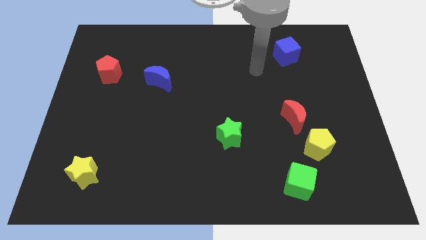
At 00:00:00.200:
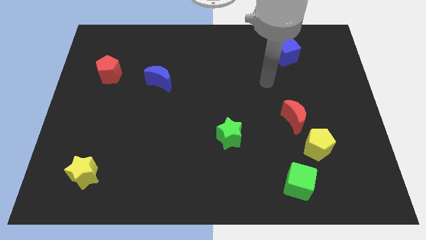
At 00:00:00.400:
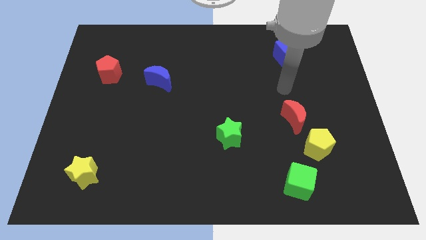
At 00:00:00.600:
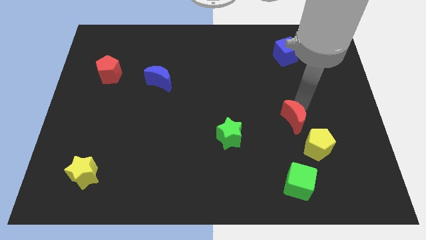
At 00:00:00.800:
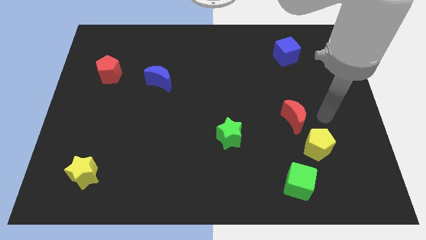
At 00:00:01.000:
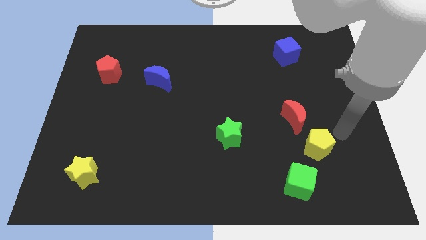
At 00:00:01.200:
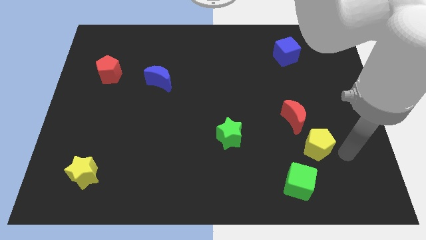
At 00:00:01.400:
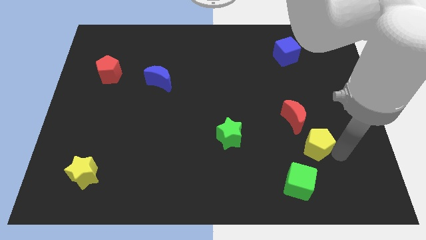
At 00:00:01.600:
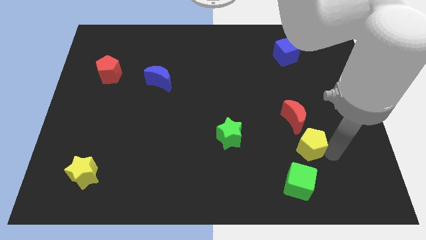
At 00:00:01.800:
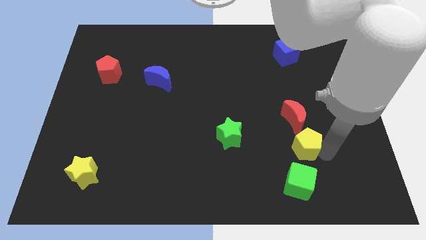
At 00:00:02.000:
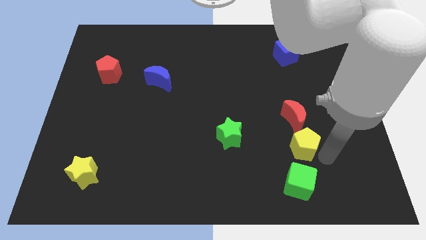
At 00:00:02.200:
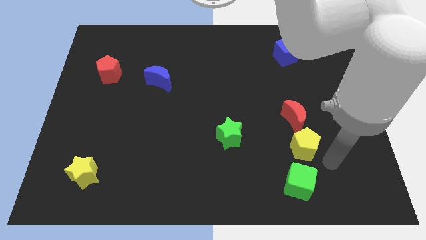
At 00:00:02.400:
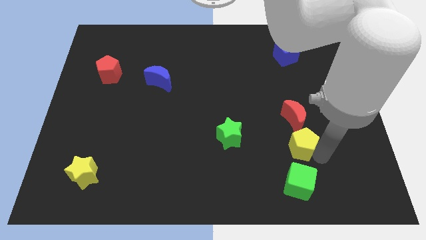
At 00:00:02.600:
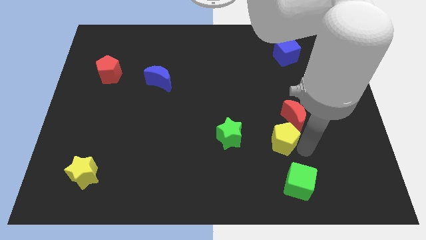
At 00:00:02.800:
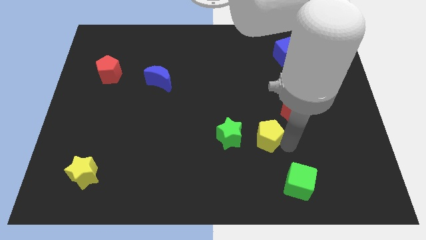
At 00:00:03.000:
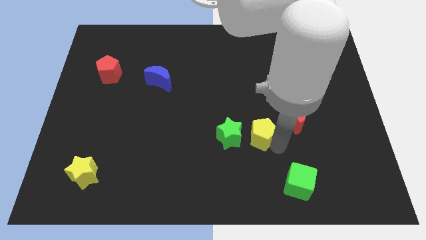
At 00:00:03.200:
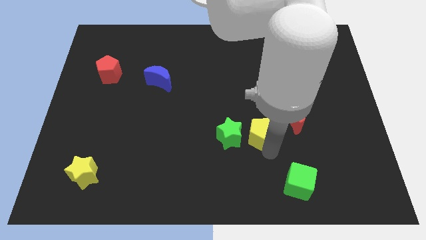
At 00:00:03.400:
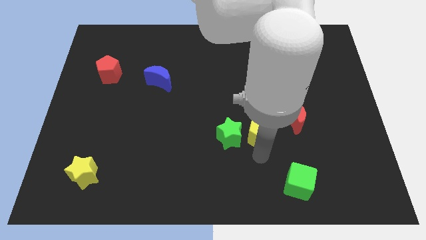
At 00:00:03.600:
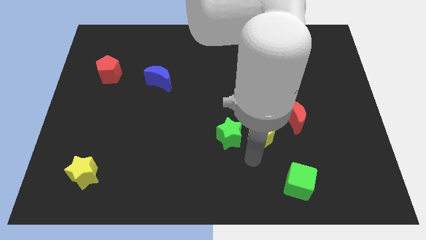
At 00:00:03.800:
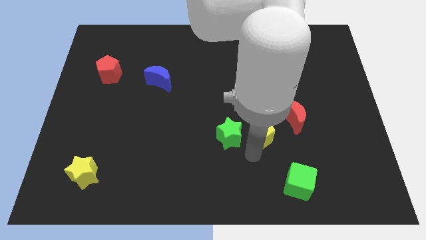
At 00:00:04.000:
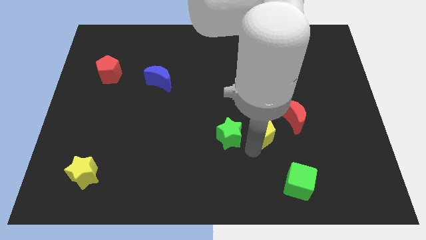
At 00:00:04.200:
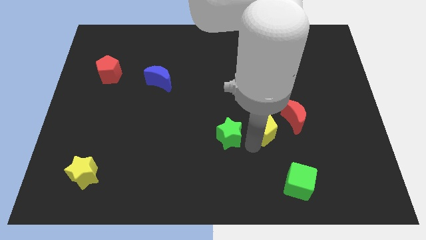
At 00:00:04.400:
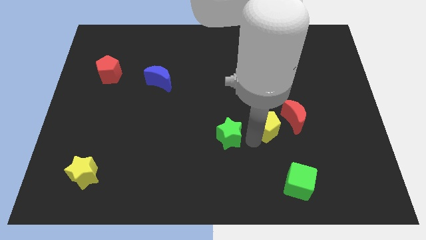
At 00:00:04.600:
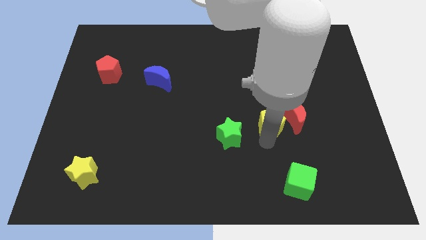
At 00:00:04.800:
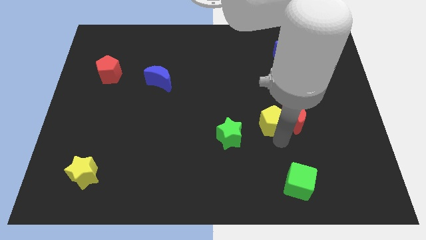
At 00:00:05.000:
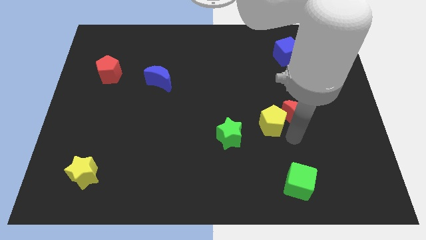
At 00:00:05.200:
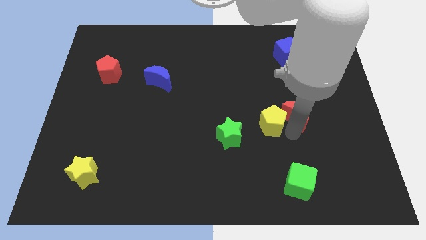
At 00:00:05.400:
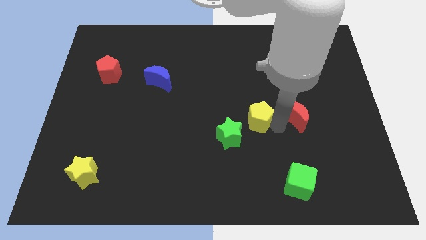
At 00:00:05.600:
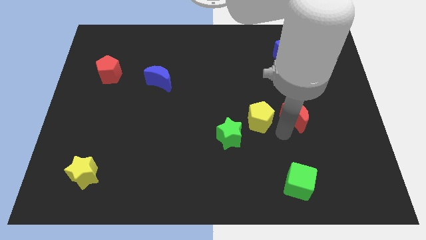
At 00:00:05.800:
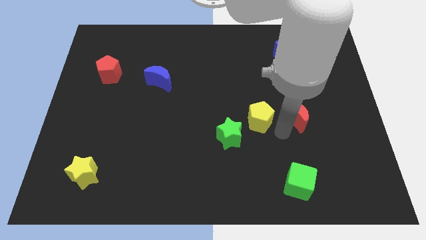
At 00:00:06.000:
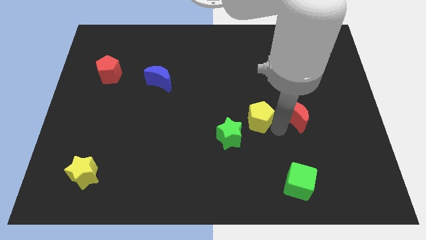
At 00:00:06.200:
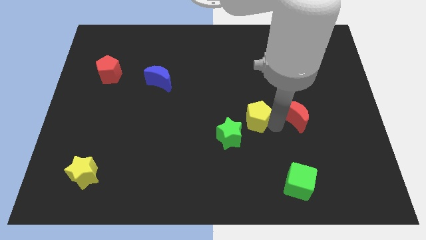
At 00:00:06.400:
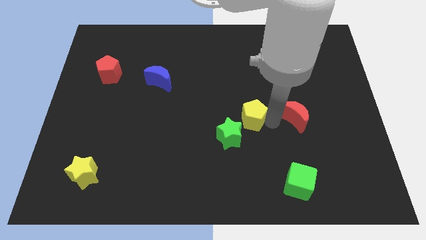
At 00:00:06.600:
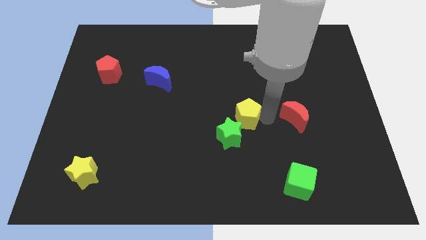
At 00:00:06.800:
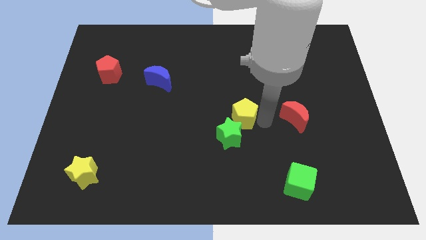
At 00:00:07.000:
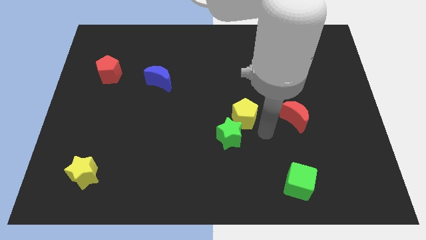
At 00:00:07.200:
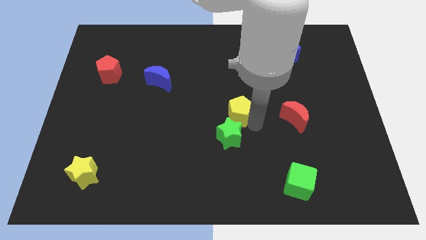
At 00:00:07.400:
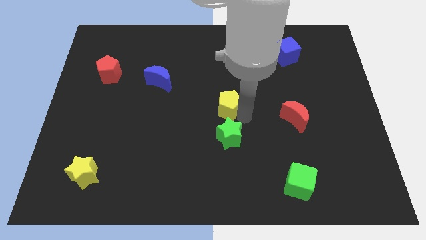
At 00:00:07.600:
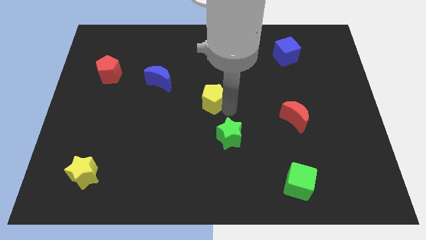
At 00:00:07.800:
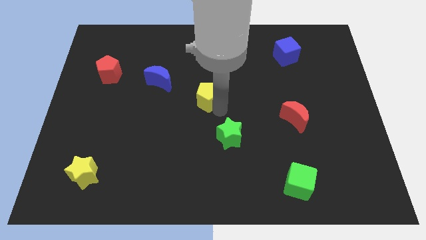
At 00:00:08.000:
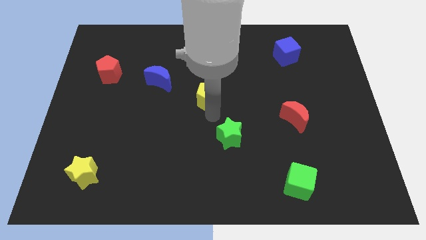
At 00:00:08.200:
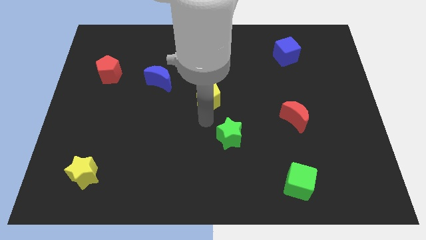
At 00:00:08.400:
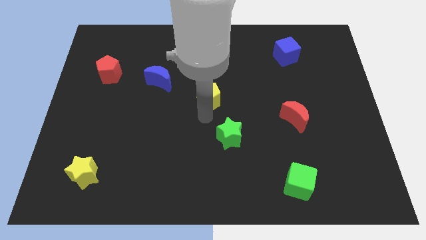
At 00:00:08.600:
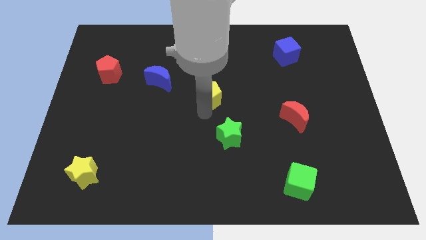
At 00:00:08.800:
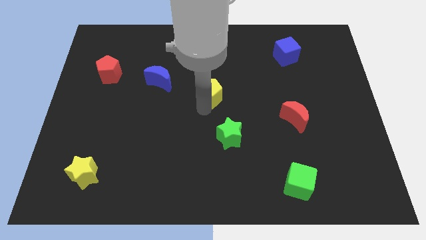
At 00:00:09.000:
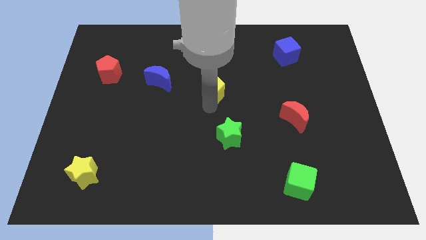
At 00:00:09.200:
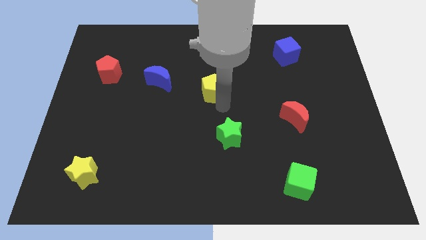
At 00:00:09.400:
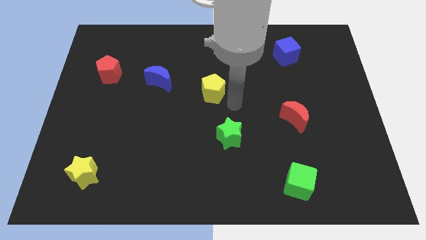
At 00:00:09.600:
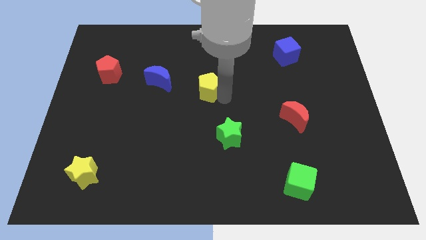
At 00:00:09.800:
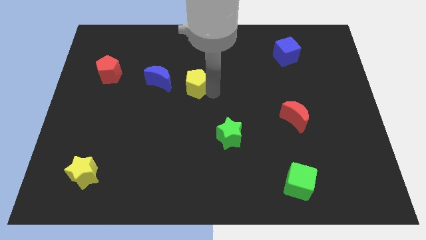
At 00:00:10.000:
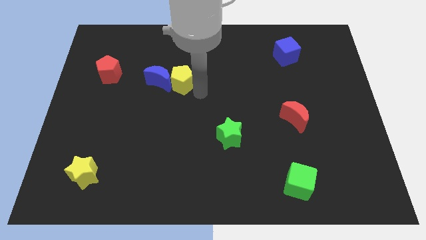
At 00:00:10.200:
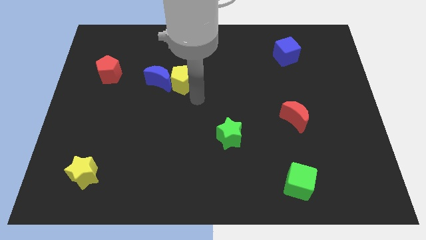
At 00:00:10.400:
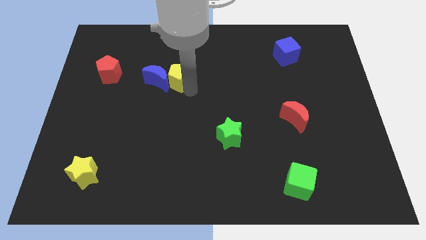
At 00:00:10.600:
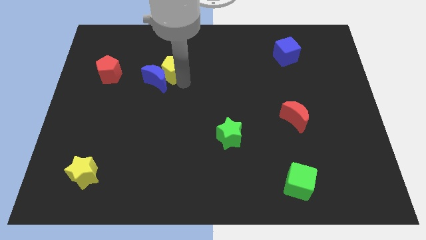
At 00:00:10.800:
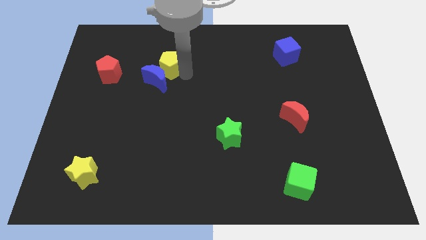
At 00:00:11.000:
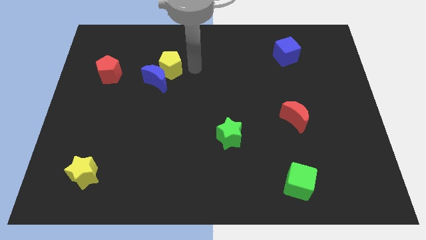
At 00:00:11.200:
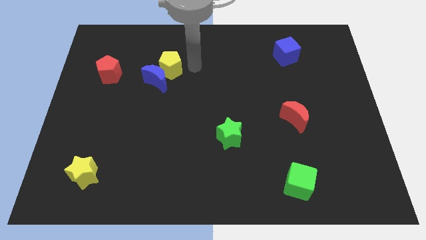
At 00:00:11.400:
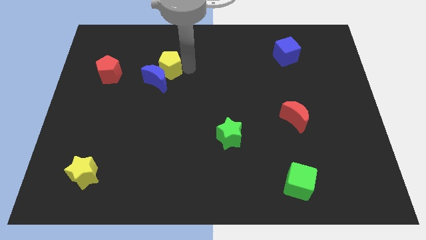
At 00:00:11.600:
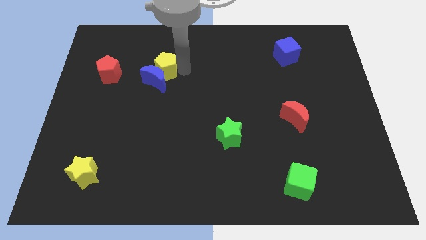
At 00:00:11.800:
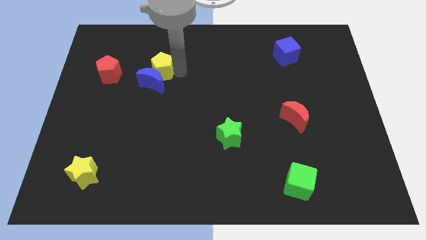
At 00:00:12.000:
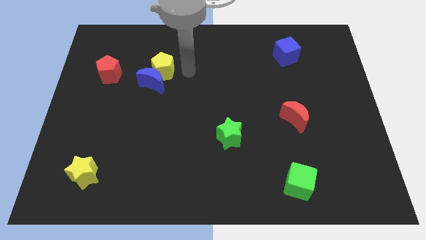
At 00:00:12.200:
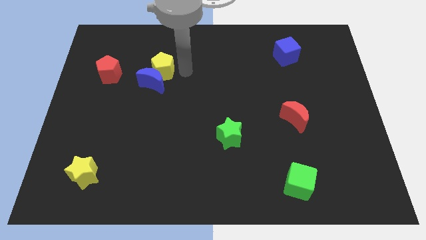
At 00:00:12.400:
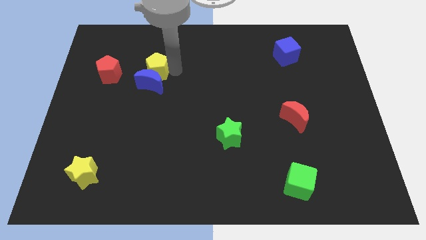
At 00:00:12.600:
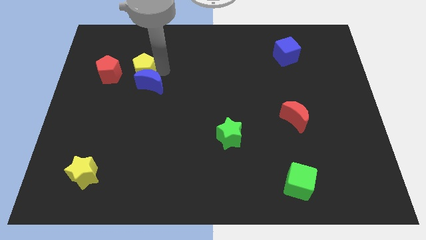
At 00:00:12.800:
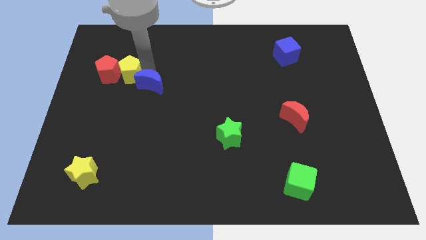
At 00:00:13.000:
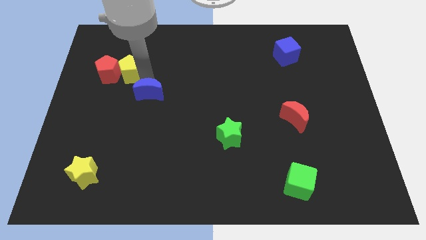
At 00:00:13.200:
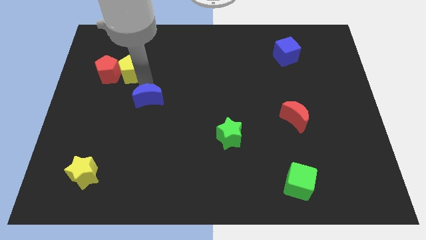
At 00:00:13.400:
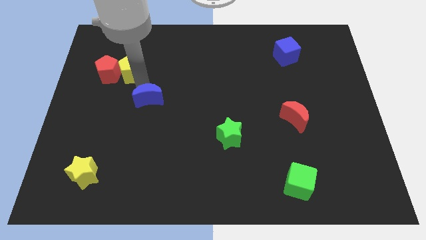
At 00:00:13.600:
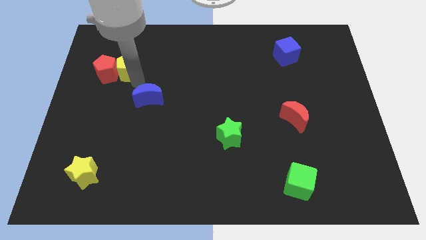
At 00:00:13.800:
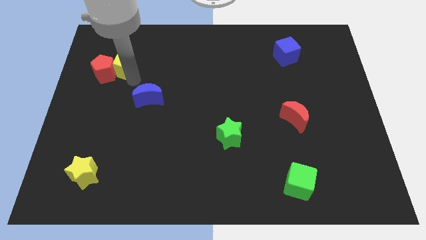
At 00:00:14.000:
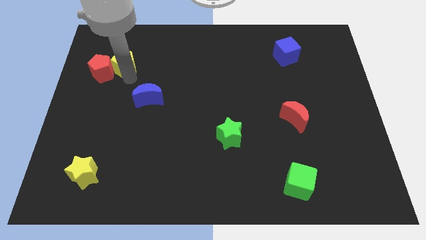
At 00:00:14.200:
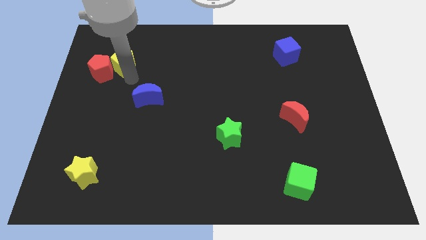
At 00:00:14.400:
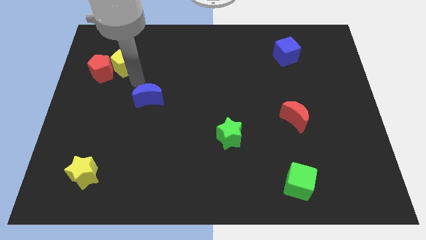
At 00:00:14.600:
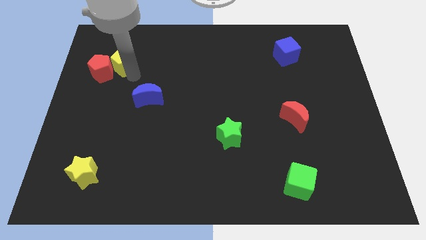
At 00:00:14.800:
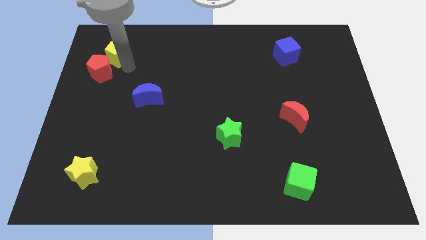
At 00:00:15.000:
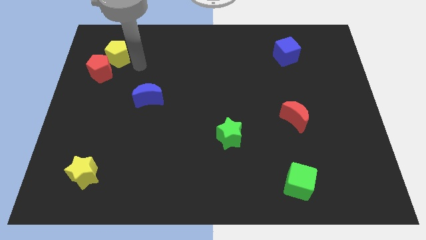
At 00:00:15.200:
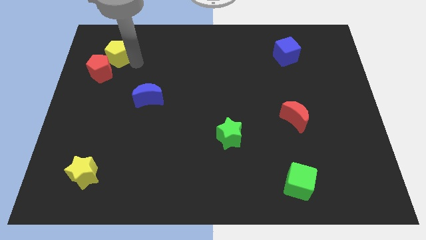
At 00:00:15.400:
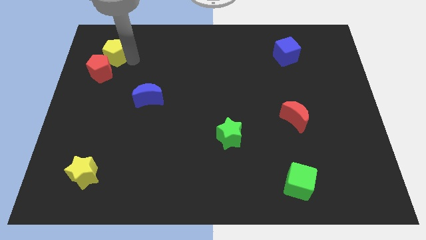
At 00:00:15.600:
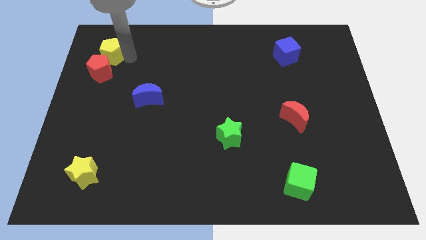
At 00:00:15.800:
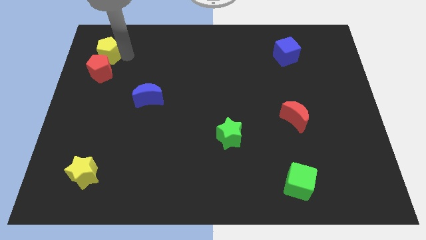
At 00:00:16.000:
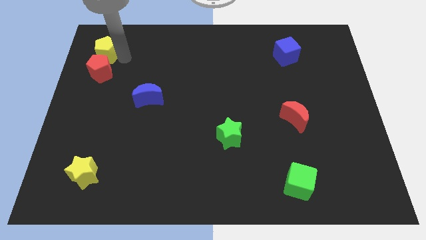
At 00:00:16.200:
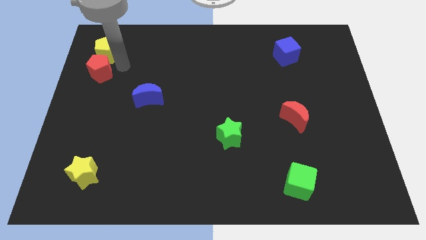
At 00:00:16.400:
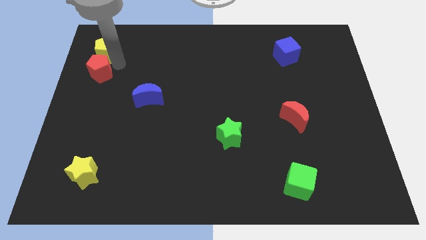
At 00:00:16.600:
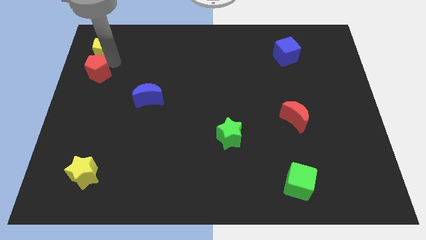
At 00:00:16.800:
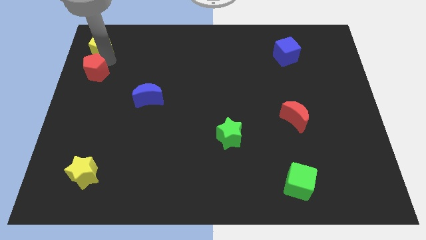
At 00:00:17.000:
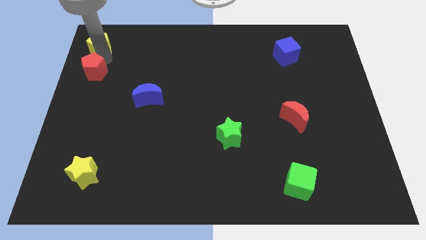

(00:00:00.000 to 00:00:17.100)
push the yellow pentagon to the top left corner
